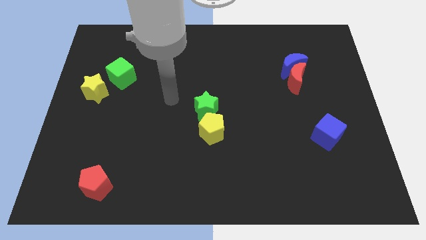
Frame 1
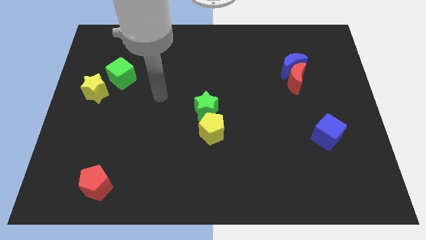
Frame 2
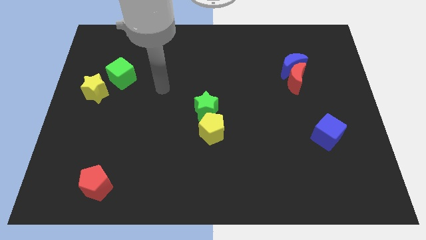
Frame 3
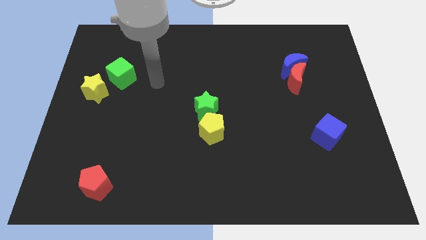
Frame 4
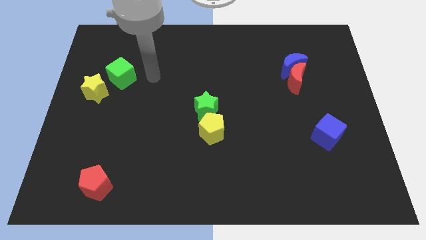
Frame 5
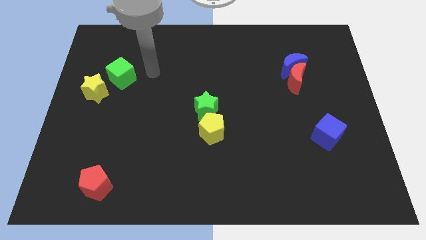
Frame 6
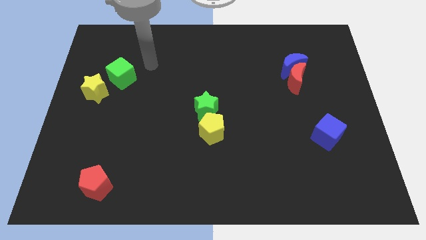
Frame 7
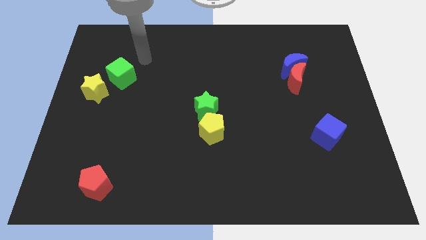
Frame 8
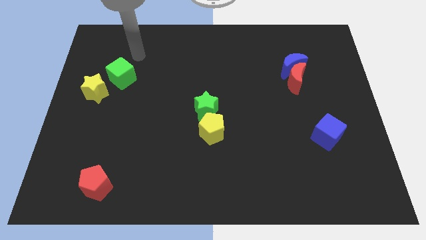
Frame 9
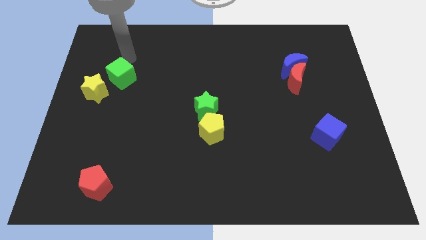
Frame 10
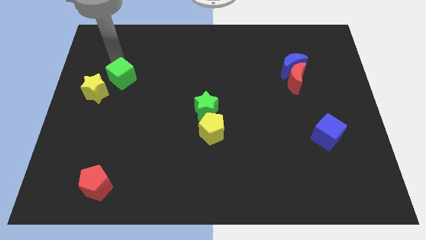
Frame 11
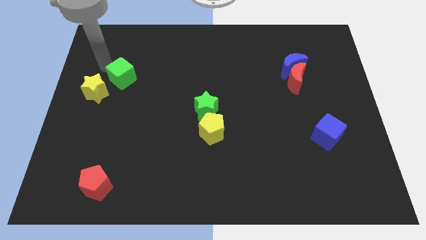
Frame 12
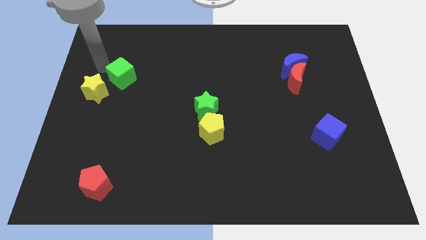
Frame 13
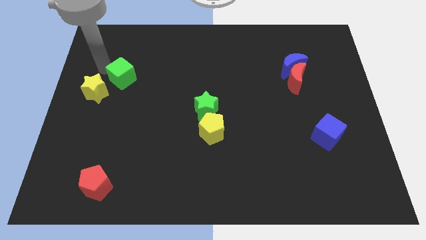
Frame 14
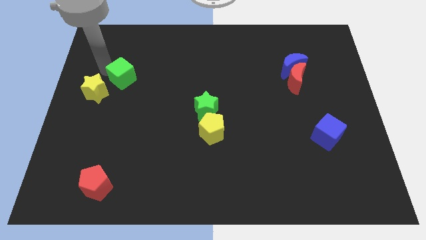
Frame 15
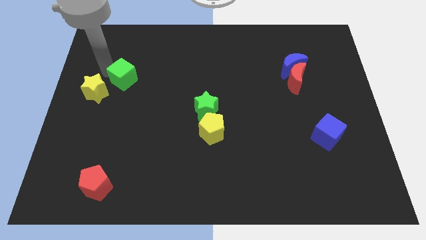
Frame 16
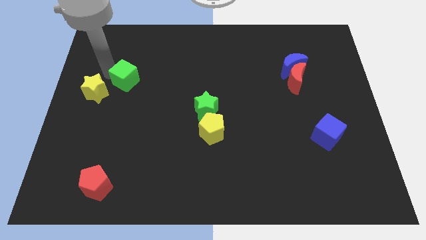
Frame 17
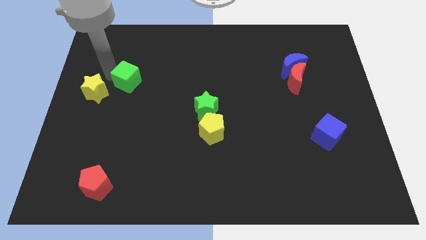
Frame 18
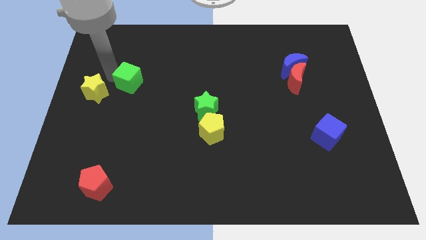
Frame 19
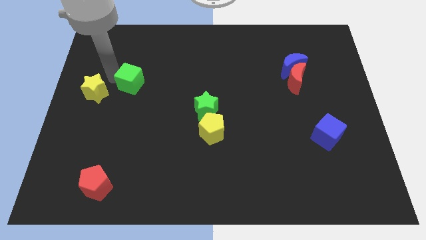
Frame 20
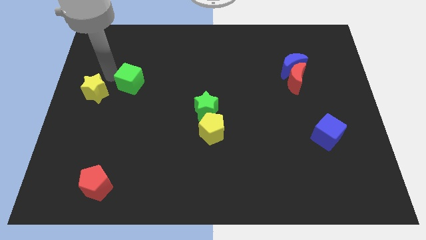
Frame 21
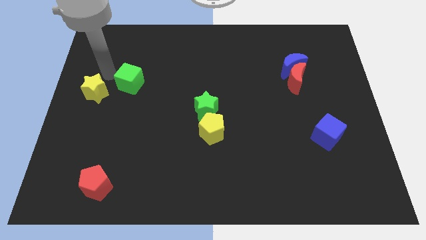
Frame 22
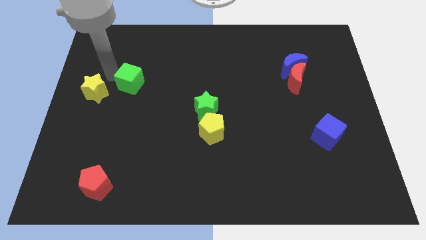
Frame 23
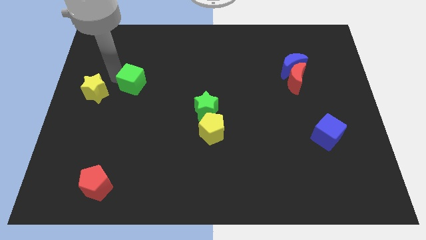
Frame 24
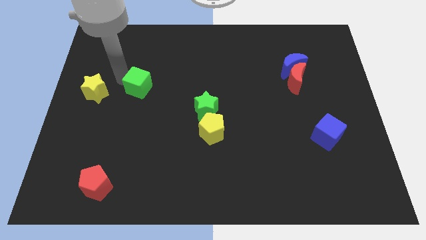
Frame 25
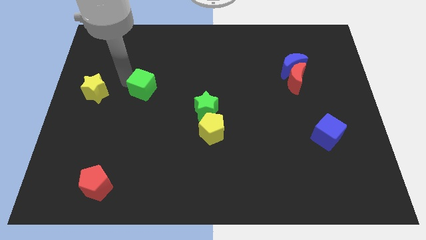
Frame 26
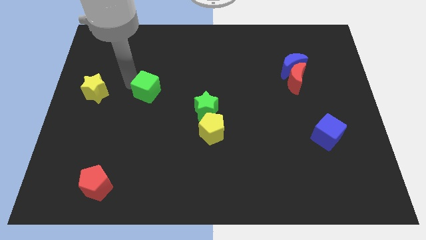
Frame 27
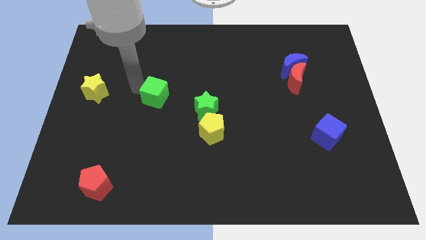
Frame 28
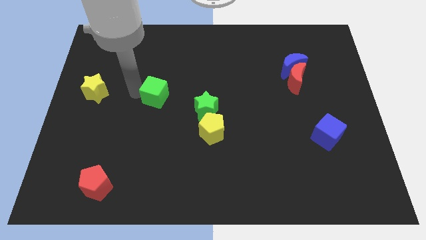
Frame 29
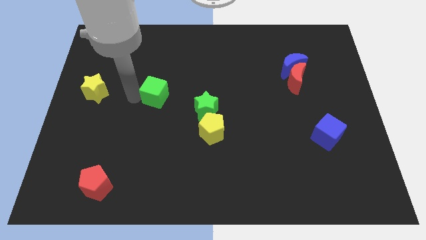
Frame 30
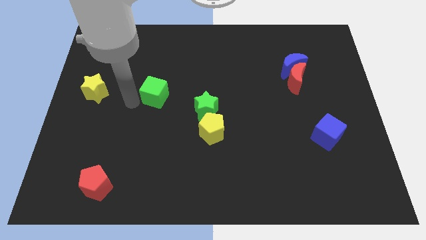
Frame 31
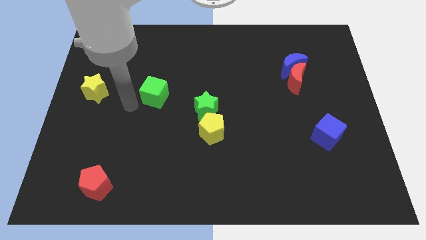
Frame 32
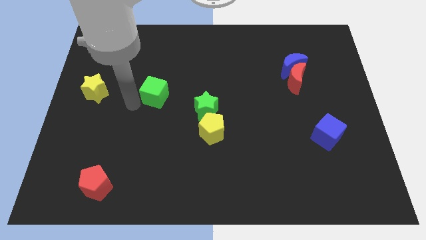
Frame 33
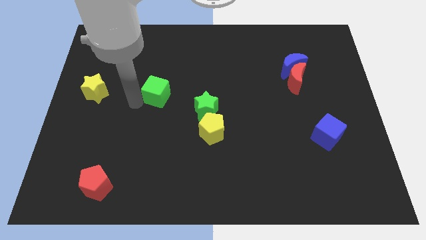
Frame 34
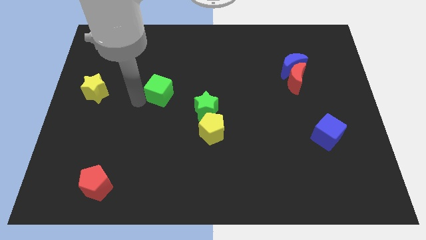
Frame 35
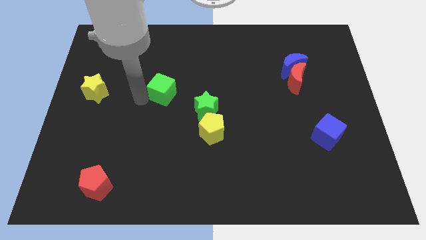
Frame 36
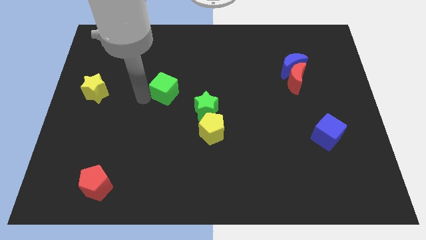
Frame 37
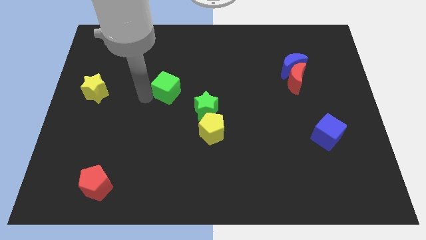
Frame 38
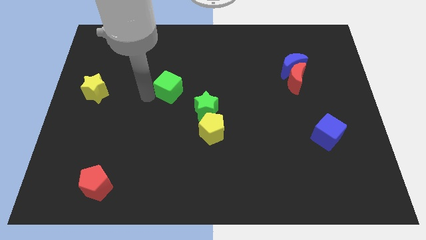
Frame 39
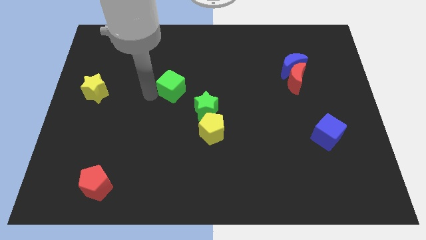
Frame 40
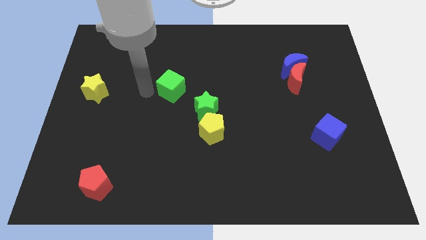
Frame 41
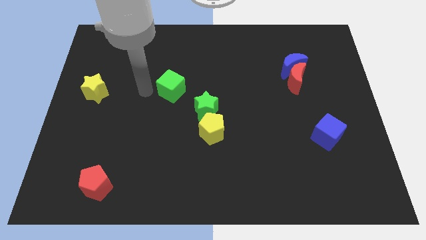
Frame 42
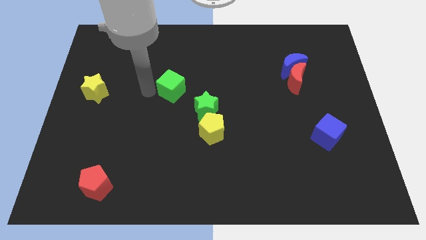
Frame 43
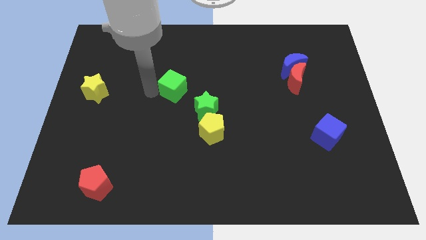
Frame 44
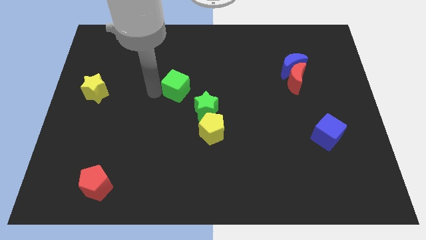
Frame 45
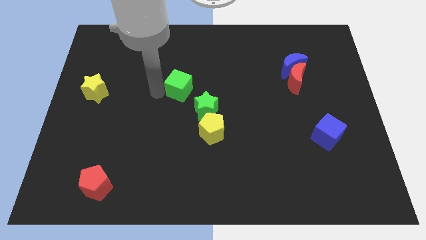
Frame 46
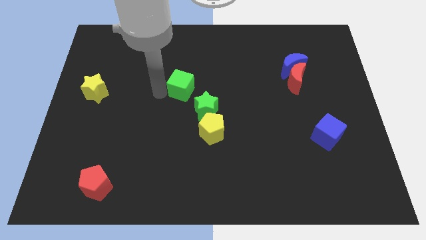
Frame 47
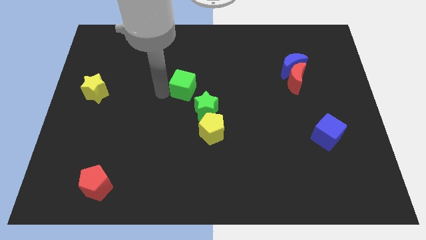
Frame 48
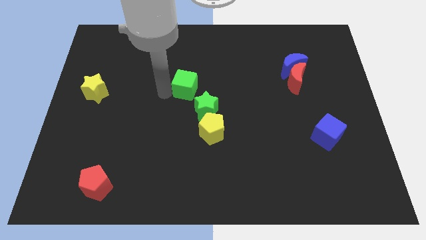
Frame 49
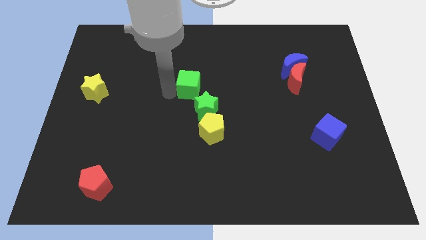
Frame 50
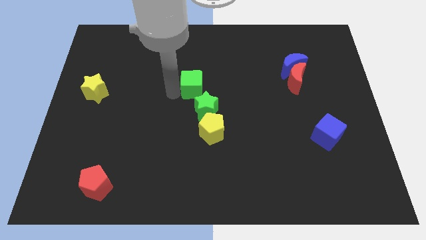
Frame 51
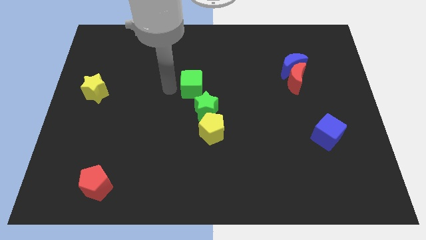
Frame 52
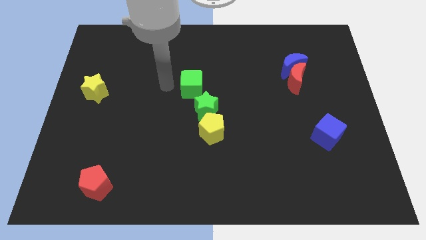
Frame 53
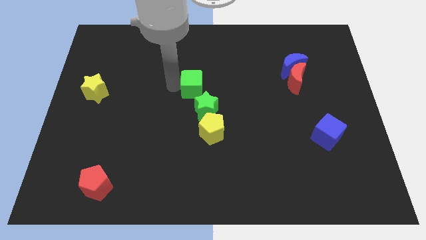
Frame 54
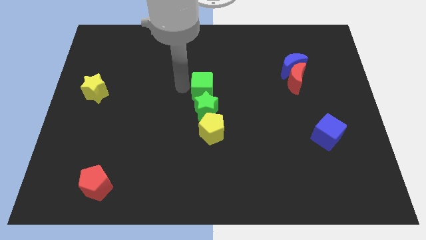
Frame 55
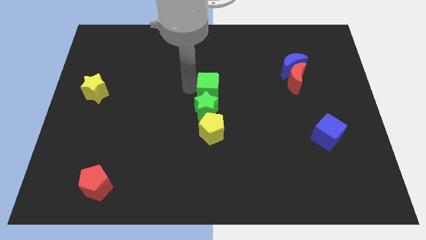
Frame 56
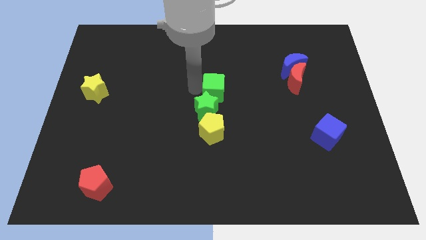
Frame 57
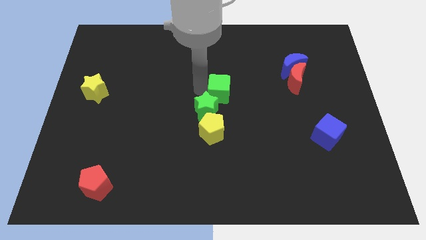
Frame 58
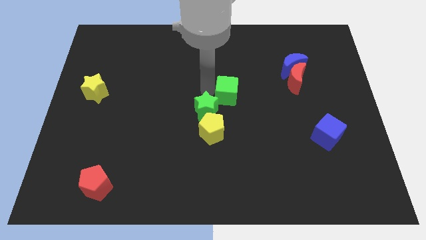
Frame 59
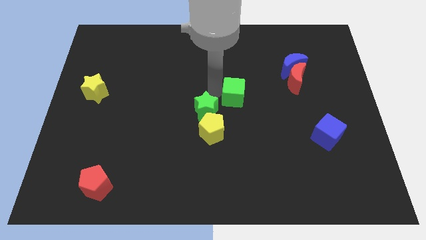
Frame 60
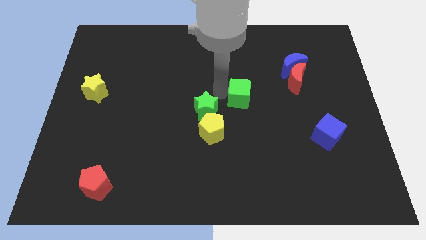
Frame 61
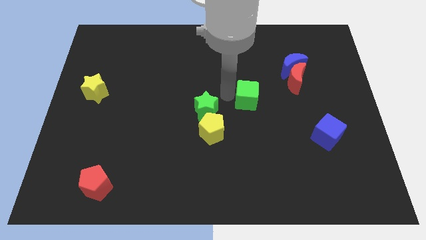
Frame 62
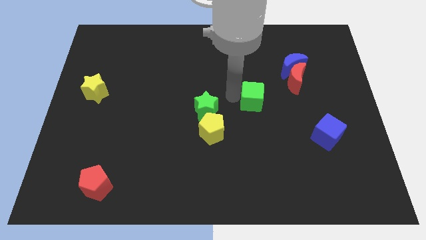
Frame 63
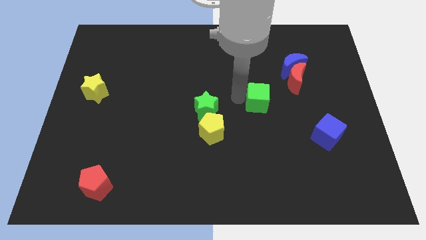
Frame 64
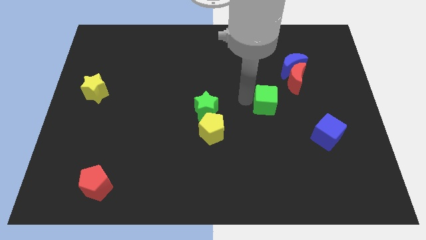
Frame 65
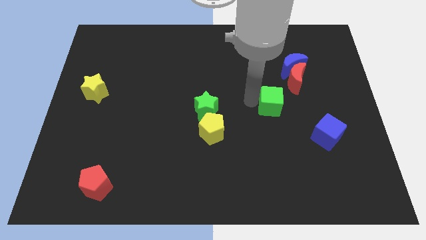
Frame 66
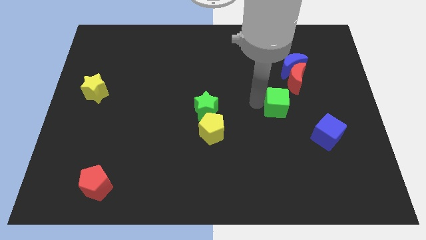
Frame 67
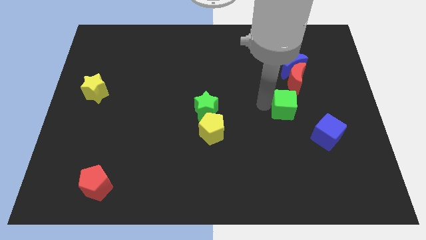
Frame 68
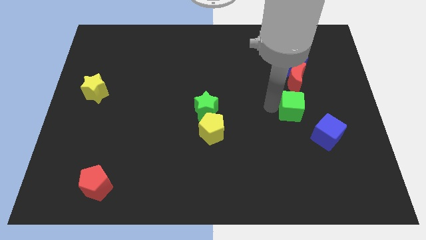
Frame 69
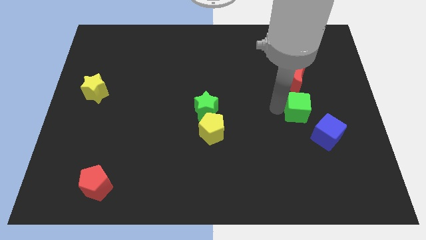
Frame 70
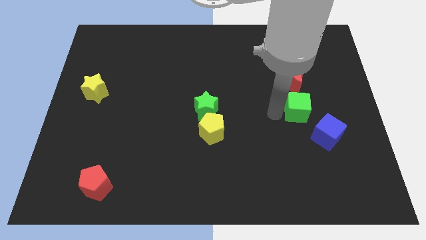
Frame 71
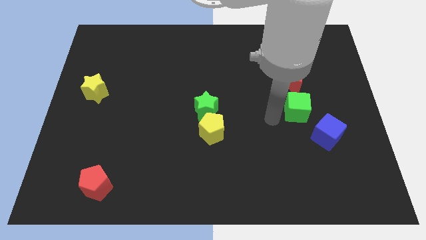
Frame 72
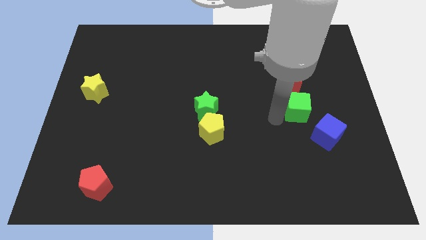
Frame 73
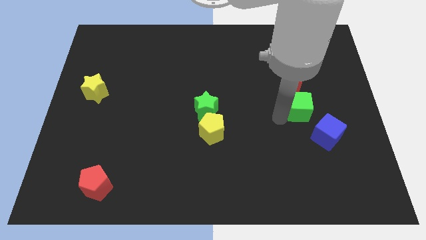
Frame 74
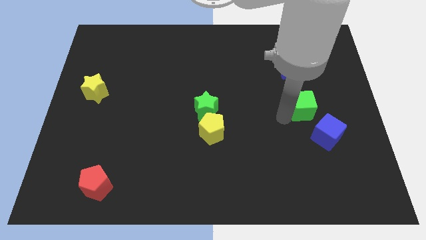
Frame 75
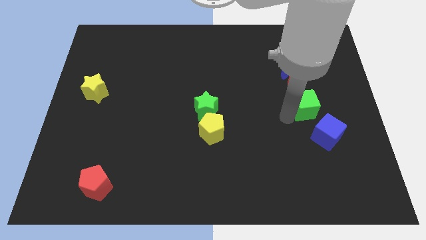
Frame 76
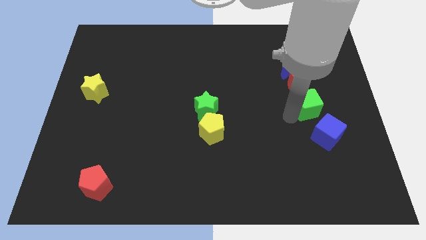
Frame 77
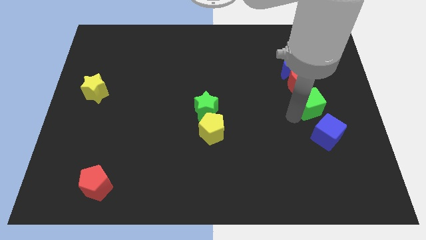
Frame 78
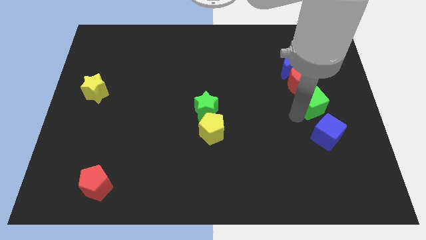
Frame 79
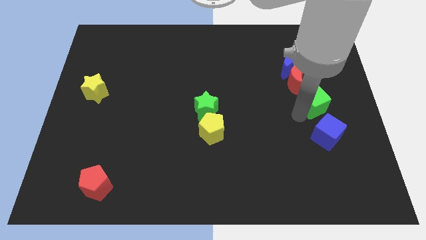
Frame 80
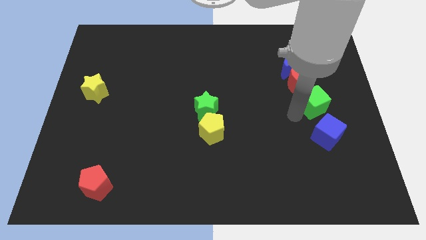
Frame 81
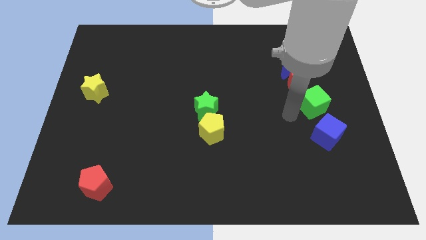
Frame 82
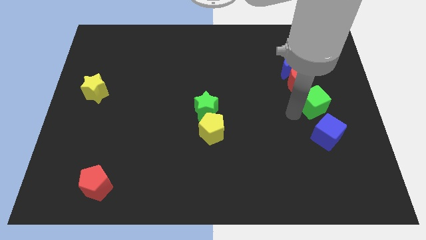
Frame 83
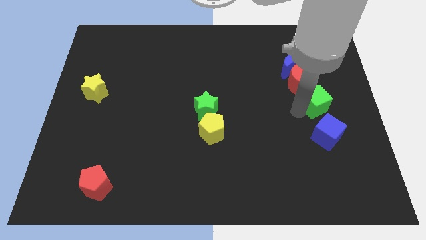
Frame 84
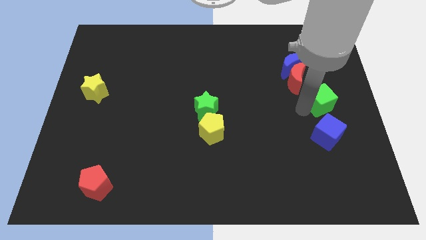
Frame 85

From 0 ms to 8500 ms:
move the green cube to the right side
